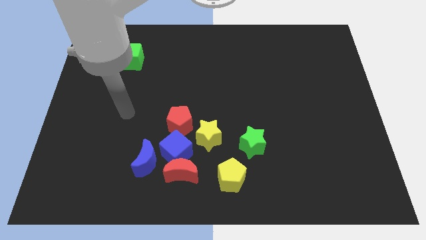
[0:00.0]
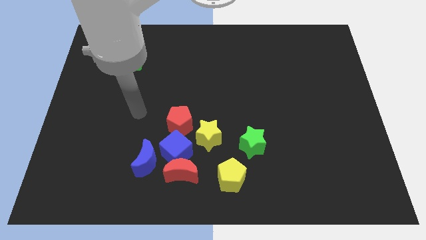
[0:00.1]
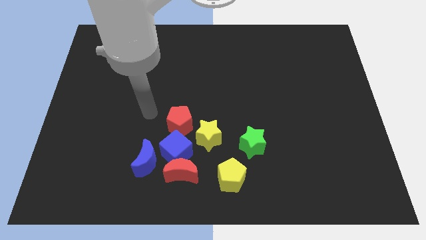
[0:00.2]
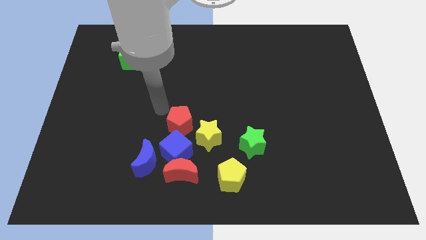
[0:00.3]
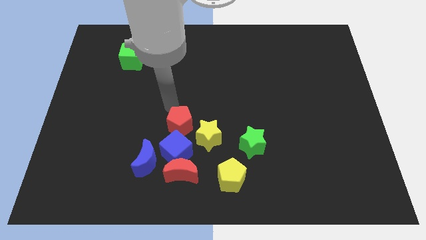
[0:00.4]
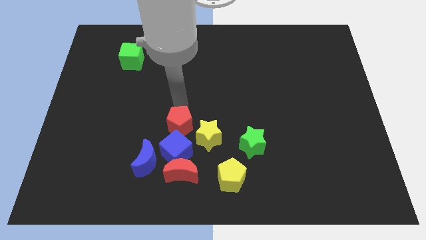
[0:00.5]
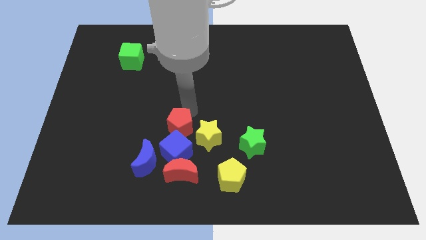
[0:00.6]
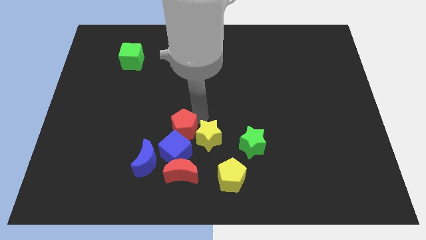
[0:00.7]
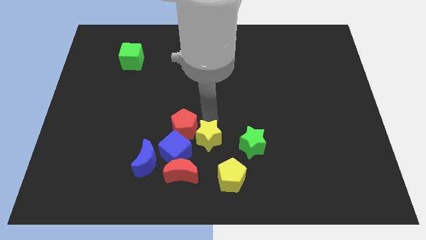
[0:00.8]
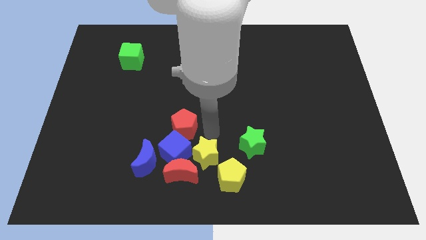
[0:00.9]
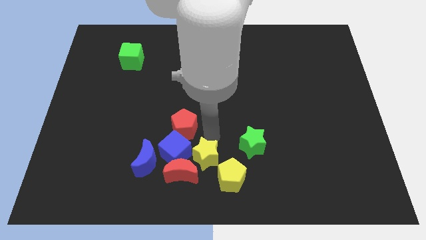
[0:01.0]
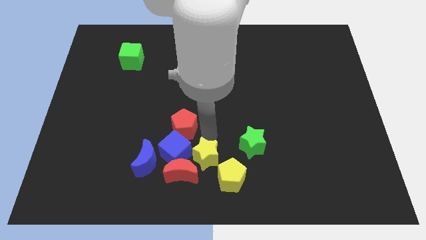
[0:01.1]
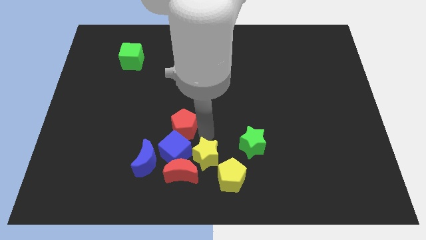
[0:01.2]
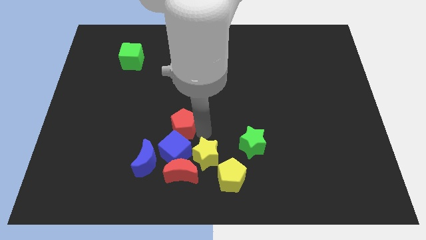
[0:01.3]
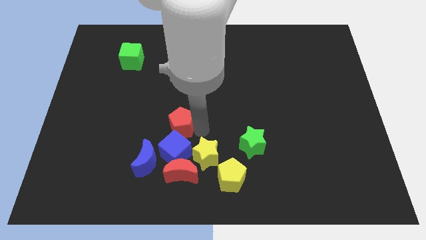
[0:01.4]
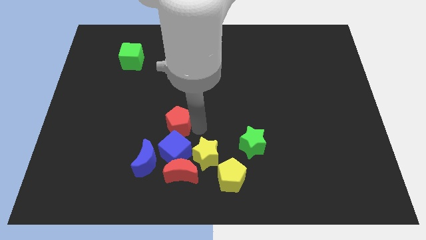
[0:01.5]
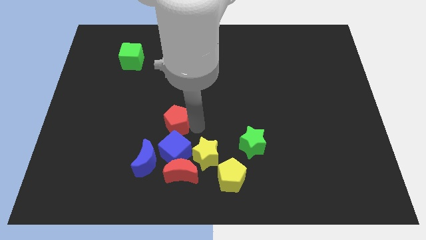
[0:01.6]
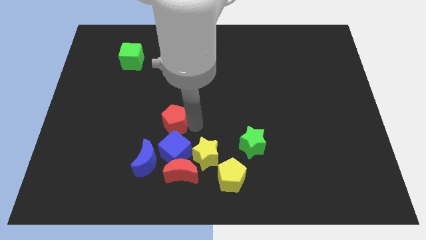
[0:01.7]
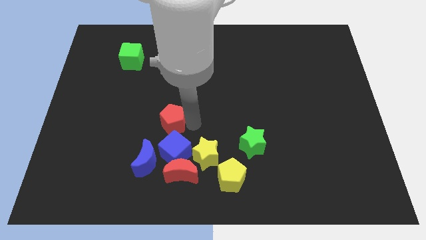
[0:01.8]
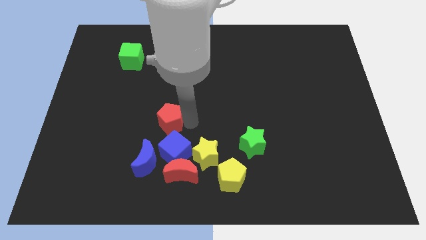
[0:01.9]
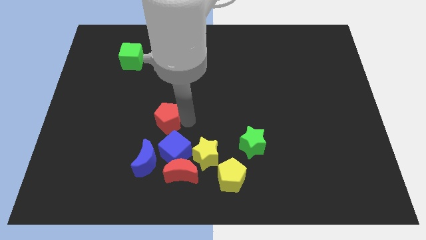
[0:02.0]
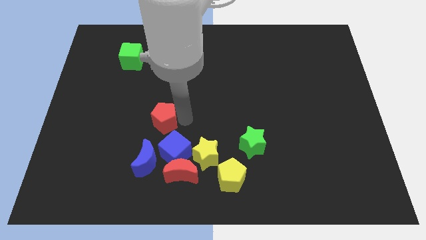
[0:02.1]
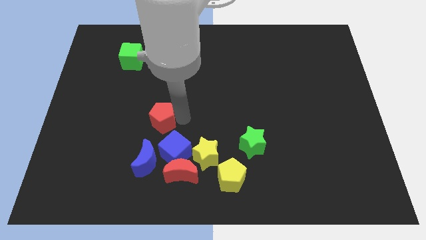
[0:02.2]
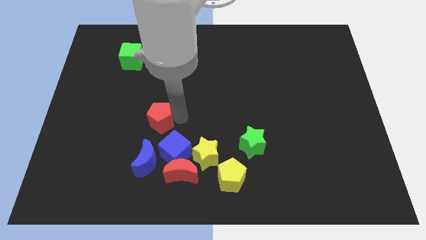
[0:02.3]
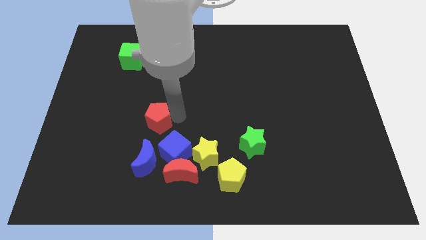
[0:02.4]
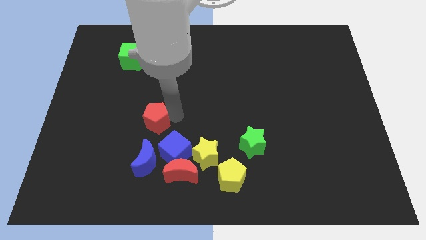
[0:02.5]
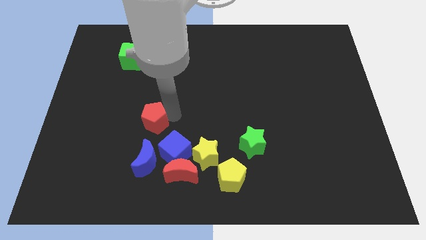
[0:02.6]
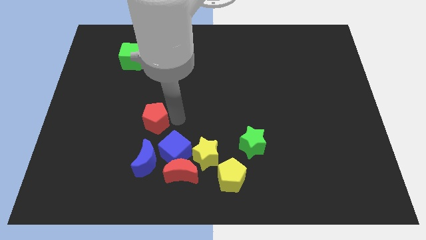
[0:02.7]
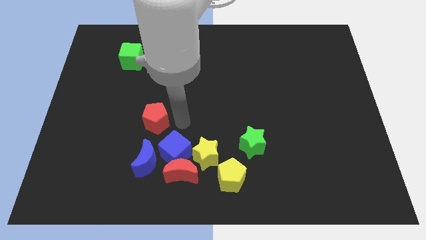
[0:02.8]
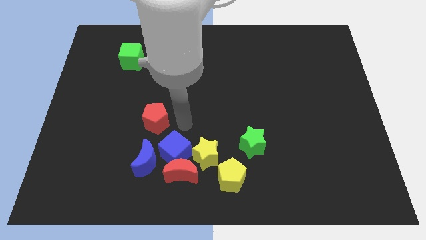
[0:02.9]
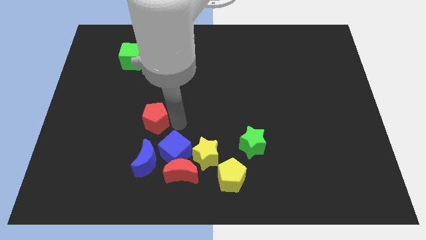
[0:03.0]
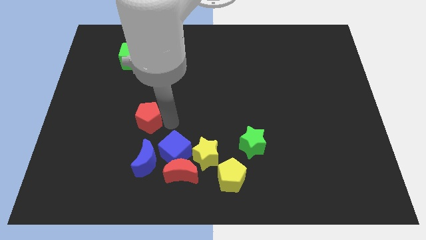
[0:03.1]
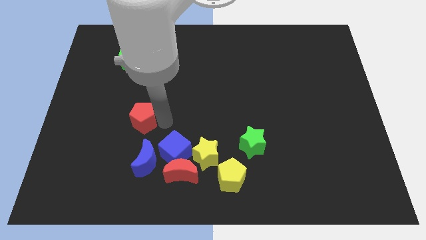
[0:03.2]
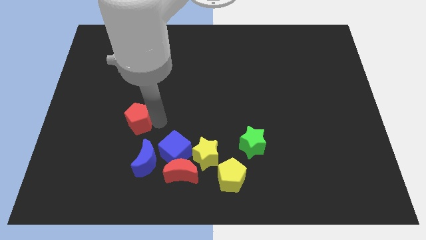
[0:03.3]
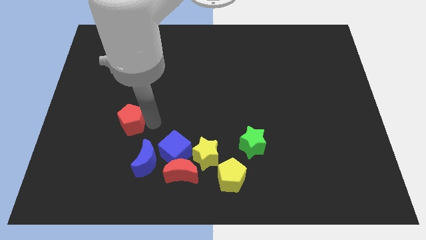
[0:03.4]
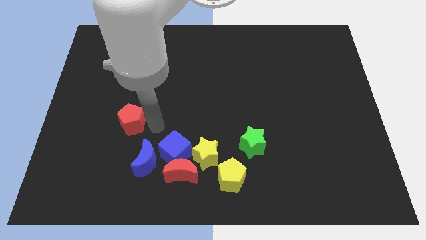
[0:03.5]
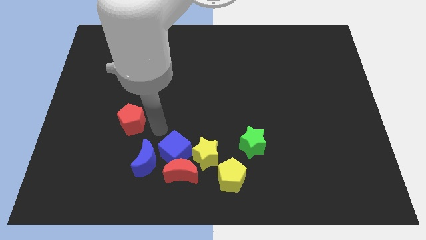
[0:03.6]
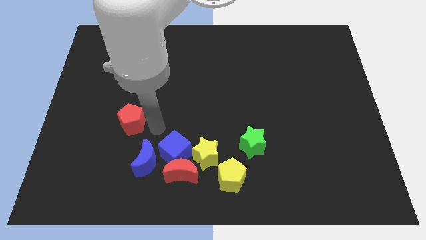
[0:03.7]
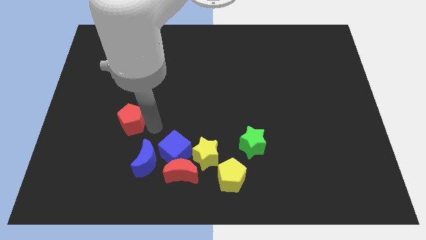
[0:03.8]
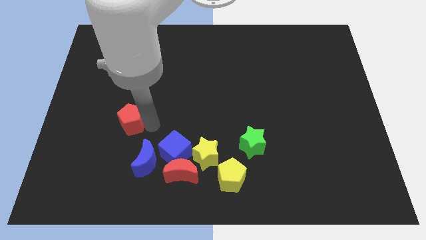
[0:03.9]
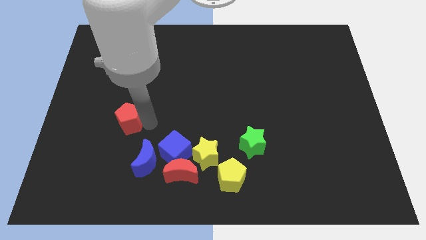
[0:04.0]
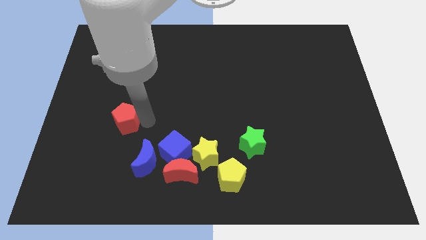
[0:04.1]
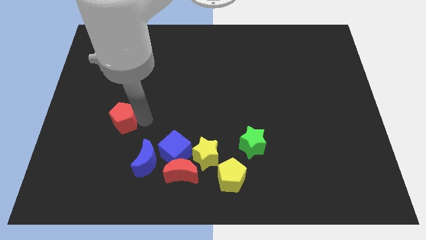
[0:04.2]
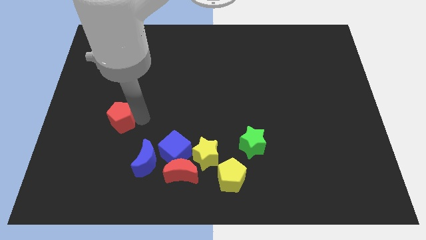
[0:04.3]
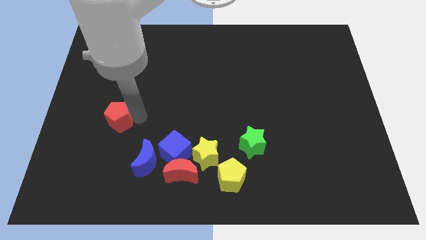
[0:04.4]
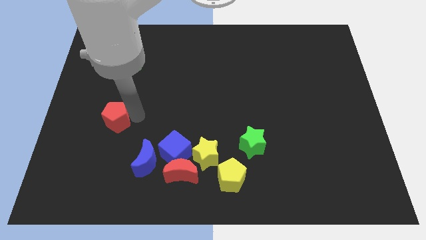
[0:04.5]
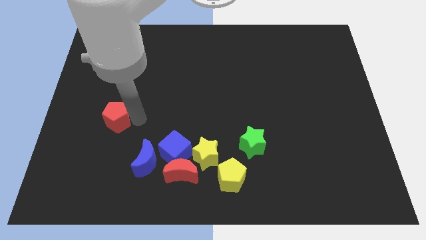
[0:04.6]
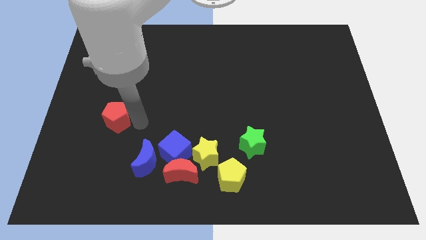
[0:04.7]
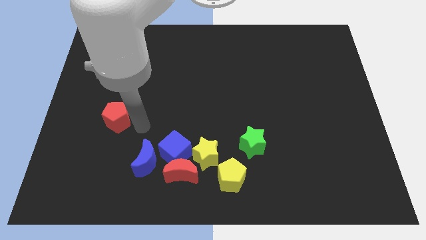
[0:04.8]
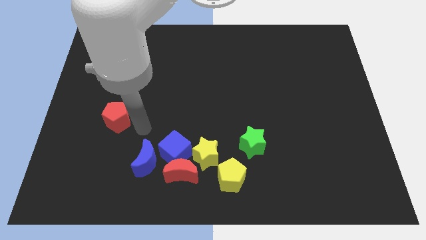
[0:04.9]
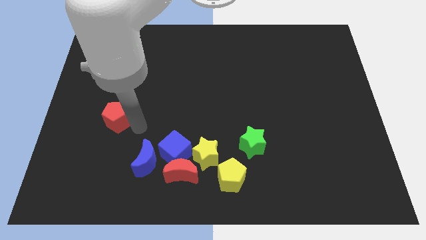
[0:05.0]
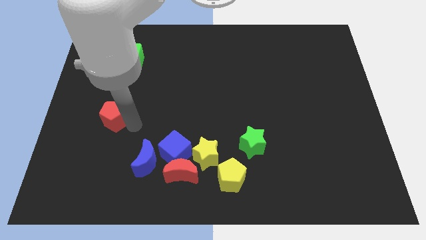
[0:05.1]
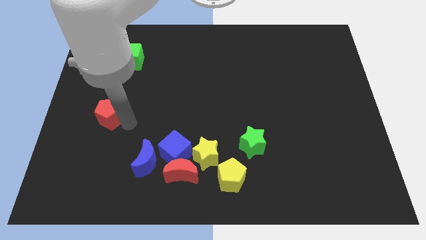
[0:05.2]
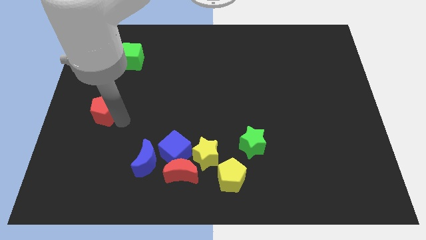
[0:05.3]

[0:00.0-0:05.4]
put the red pentagon to the left side
